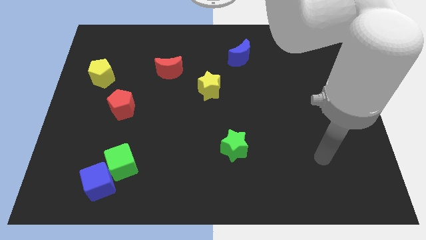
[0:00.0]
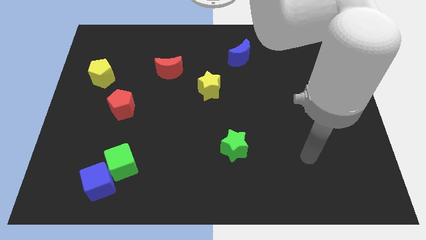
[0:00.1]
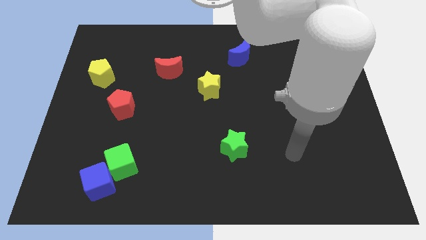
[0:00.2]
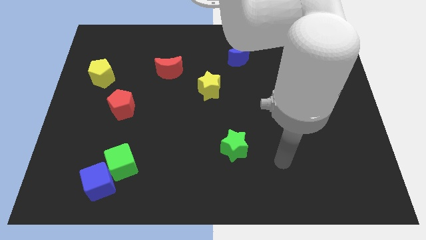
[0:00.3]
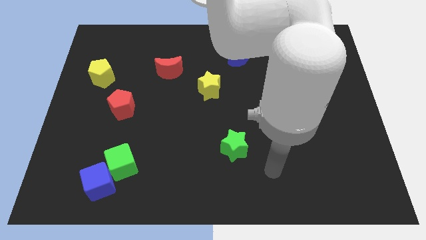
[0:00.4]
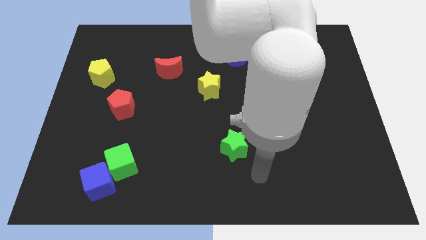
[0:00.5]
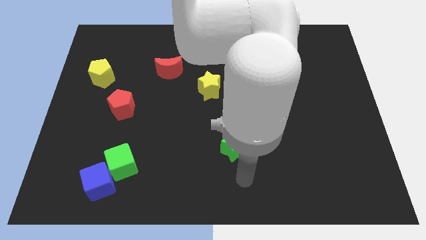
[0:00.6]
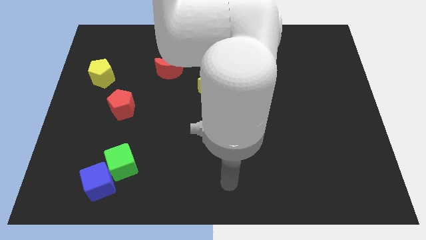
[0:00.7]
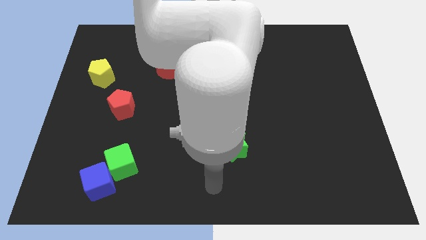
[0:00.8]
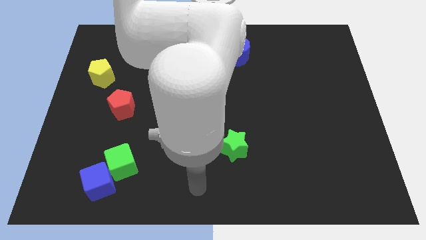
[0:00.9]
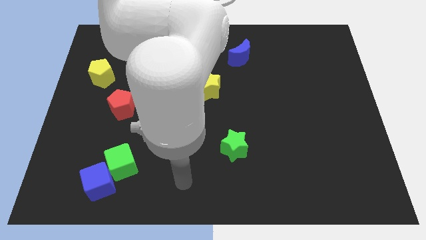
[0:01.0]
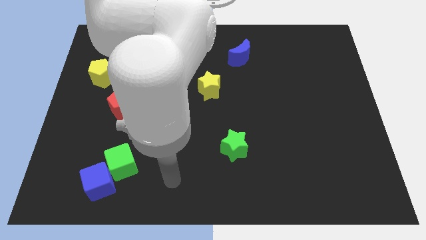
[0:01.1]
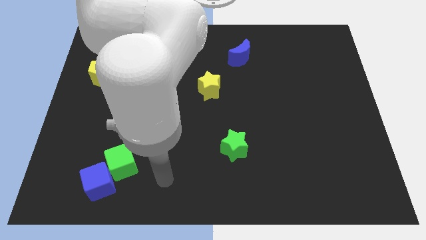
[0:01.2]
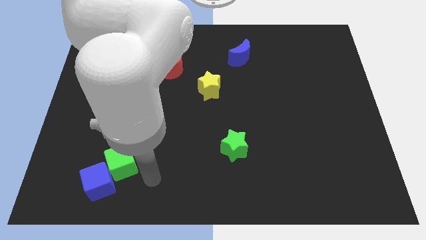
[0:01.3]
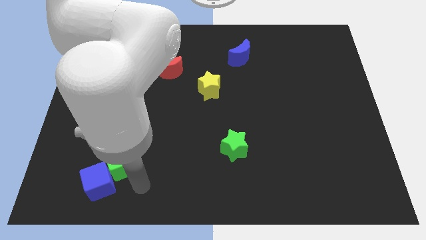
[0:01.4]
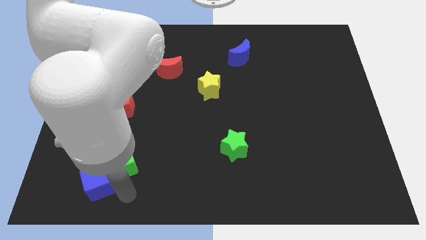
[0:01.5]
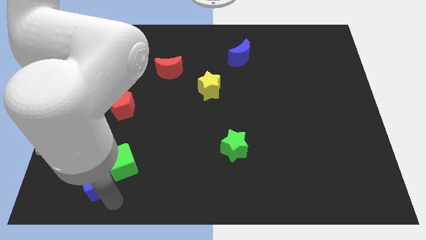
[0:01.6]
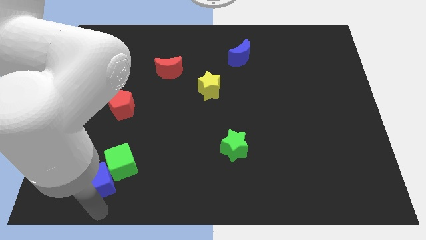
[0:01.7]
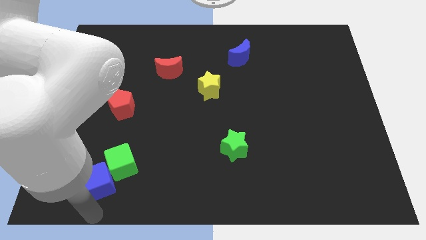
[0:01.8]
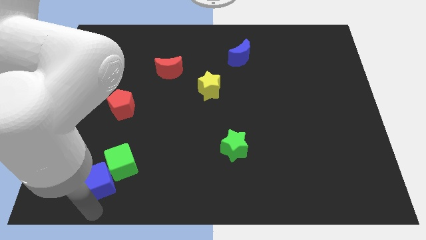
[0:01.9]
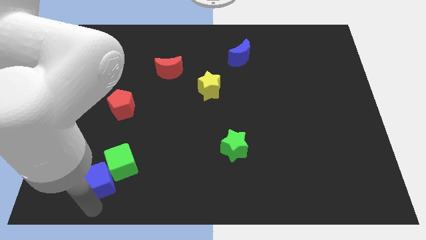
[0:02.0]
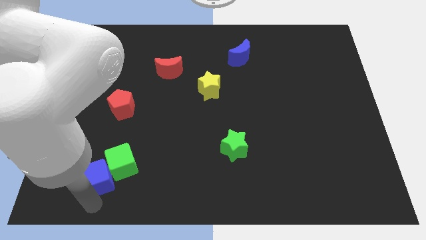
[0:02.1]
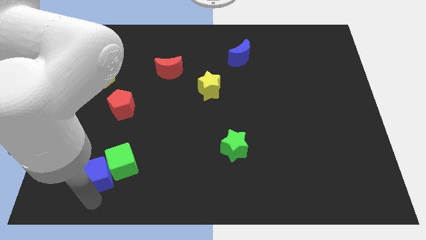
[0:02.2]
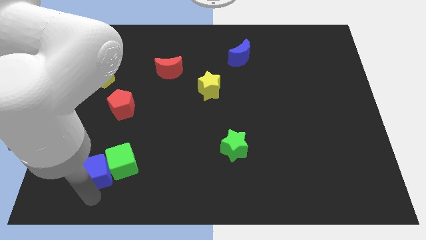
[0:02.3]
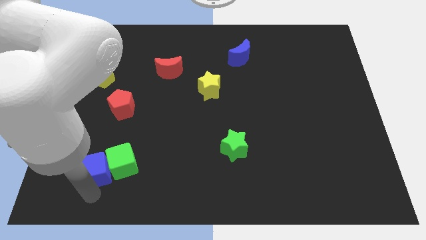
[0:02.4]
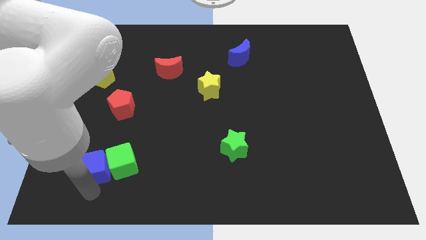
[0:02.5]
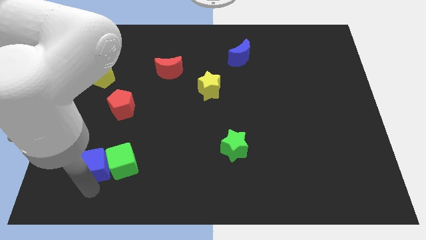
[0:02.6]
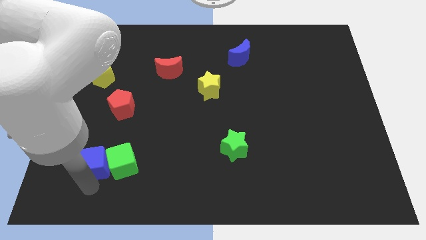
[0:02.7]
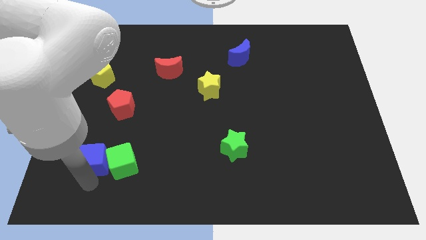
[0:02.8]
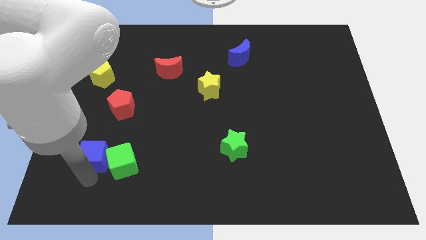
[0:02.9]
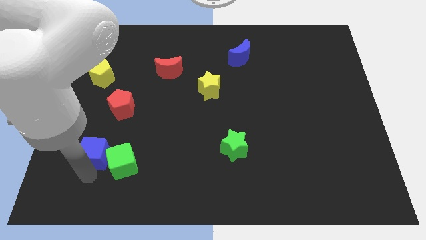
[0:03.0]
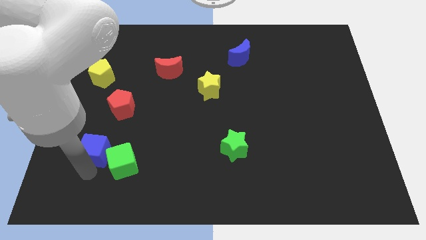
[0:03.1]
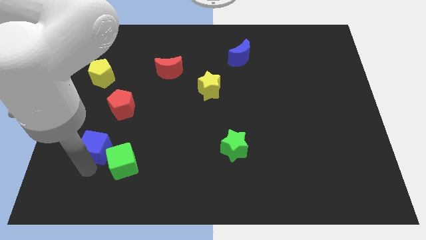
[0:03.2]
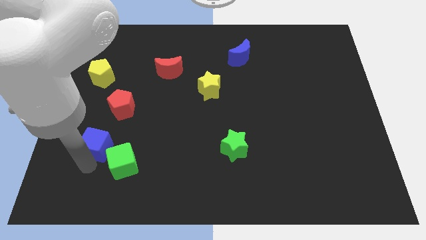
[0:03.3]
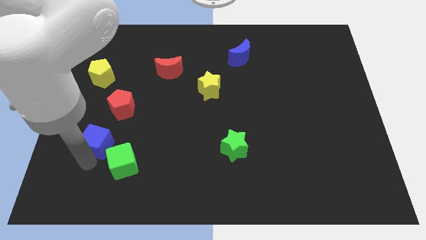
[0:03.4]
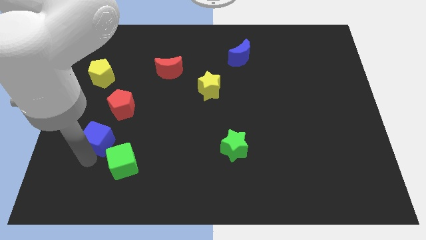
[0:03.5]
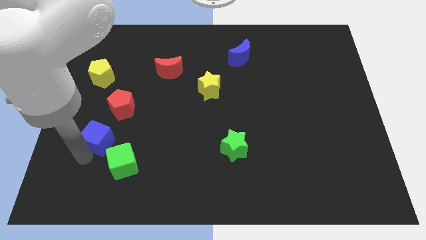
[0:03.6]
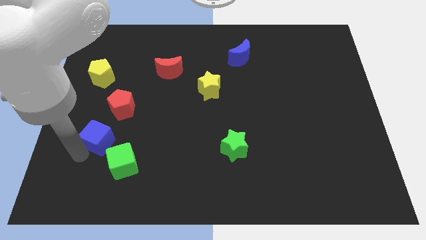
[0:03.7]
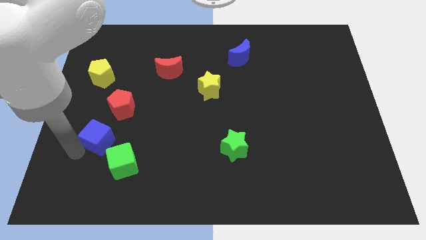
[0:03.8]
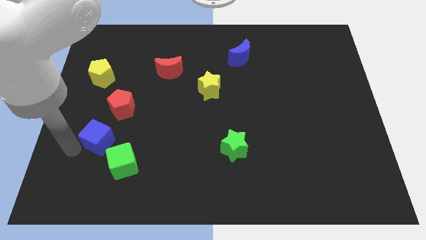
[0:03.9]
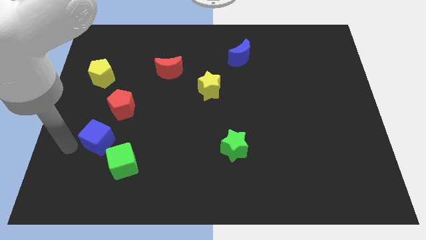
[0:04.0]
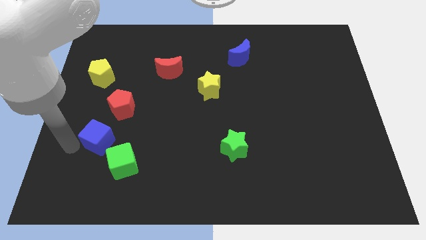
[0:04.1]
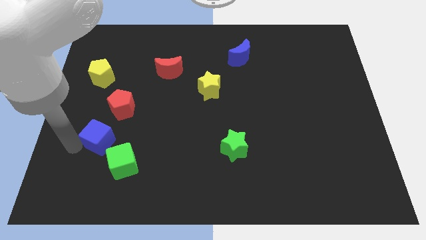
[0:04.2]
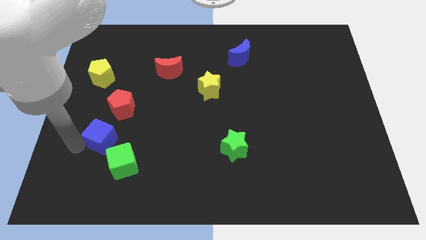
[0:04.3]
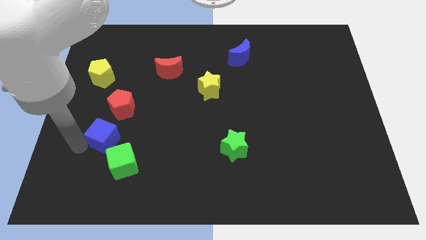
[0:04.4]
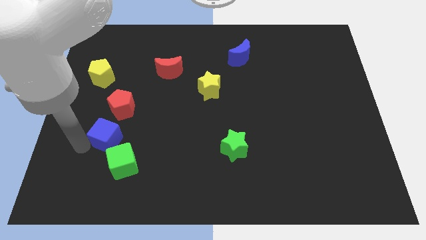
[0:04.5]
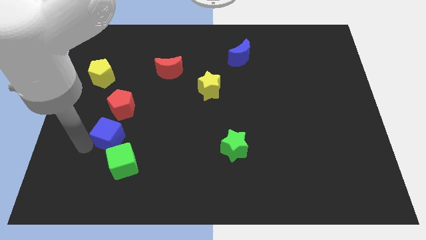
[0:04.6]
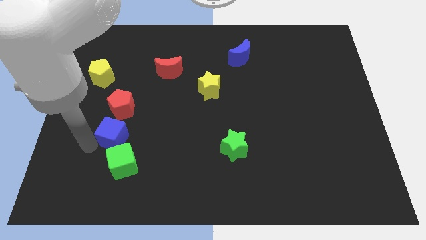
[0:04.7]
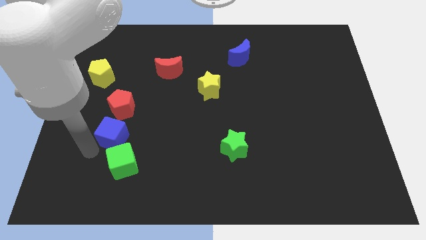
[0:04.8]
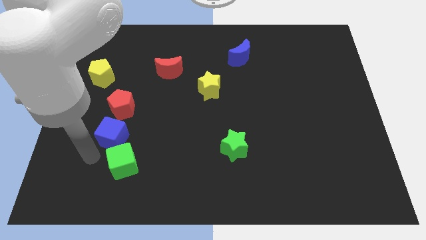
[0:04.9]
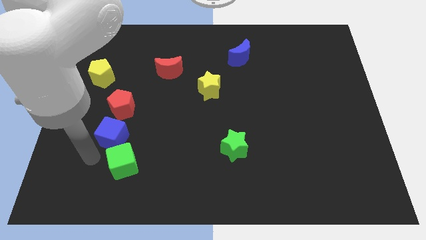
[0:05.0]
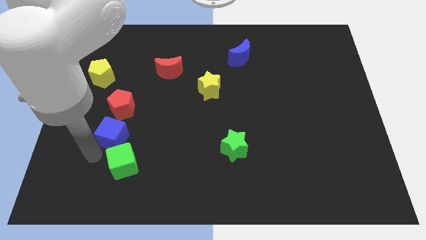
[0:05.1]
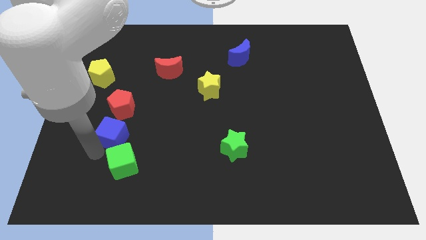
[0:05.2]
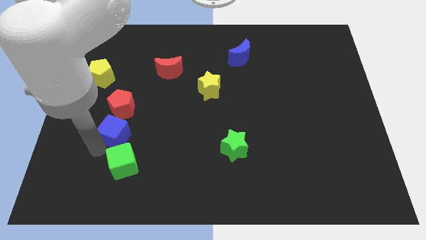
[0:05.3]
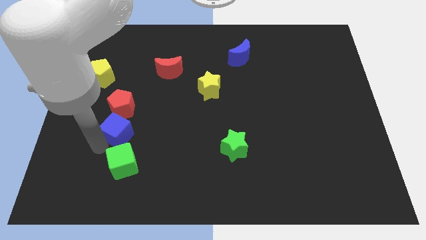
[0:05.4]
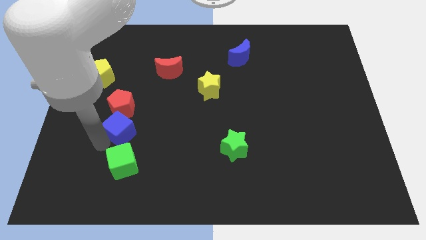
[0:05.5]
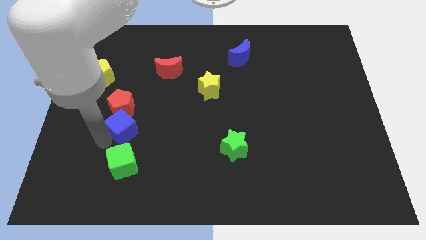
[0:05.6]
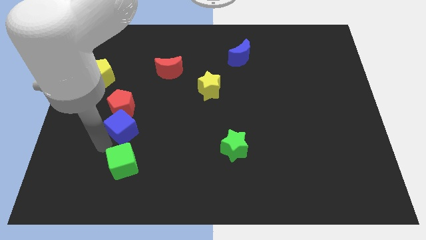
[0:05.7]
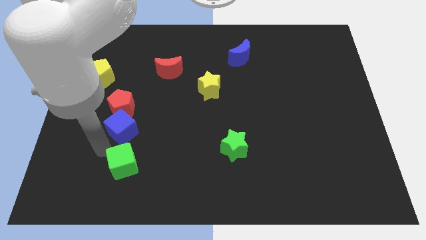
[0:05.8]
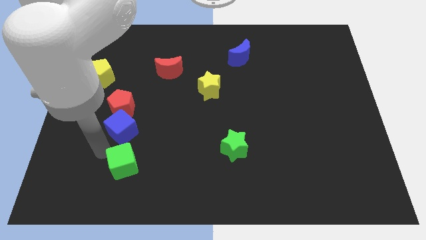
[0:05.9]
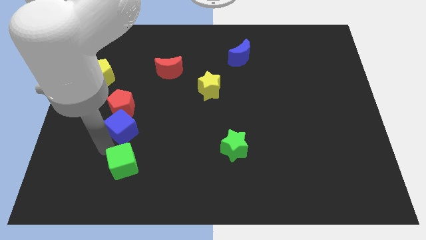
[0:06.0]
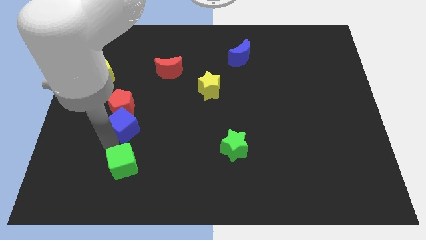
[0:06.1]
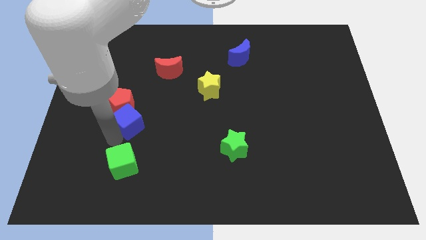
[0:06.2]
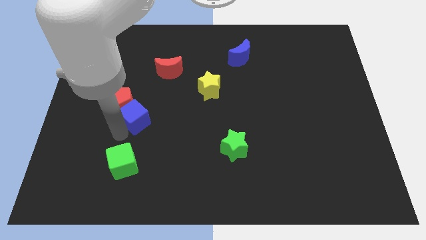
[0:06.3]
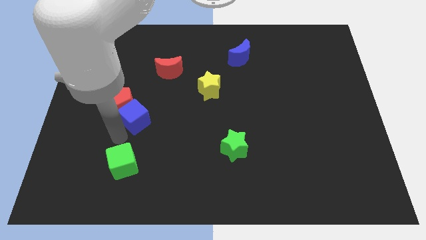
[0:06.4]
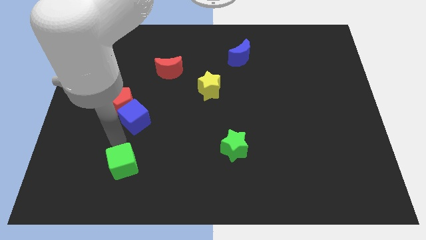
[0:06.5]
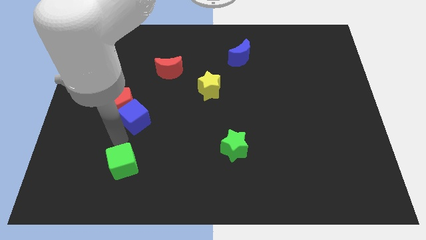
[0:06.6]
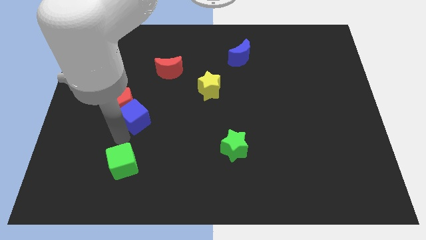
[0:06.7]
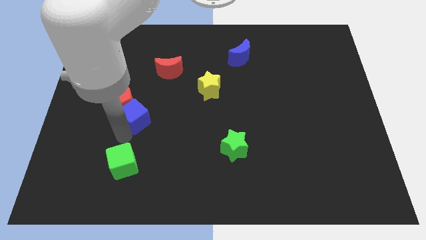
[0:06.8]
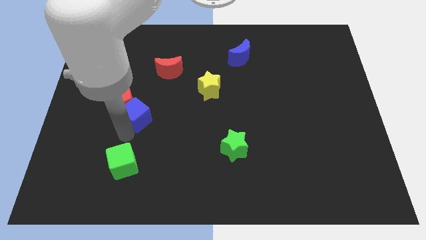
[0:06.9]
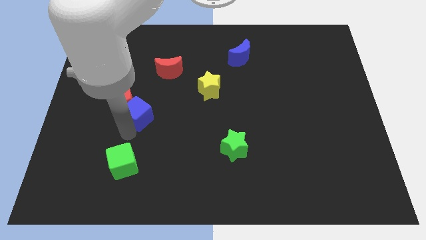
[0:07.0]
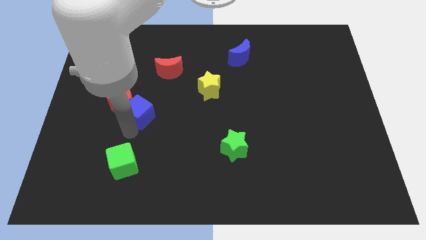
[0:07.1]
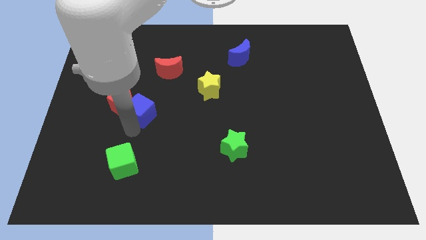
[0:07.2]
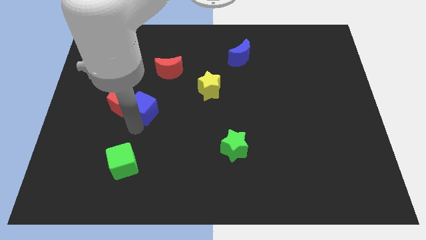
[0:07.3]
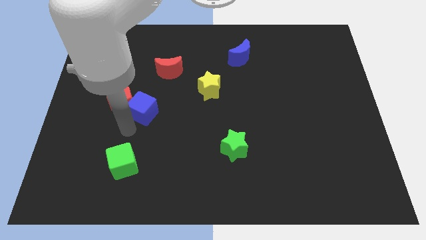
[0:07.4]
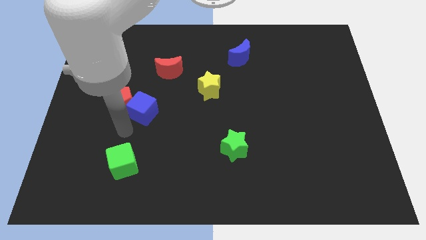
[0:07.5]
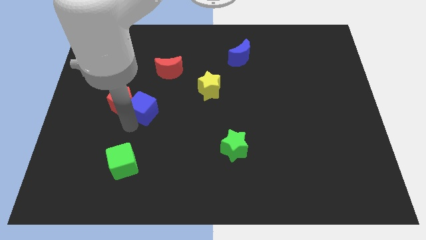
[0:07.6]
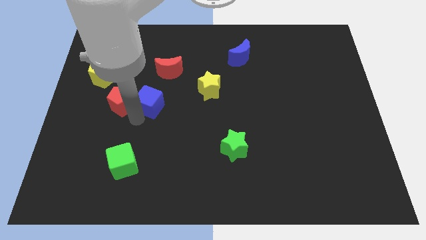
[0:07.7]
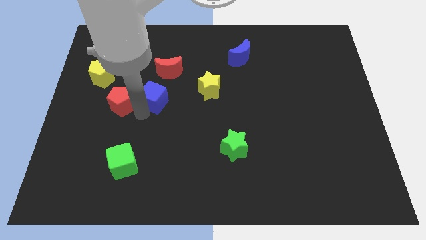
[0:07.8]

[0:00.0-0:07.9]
push the blue cube just left of the yellow star
